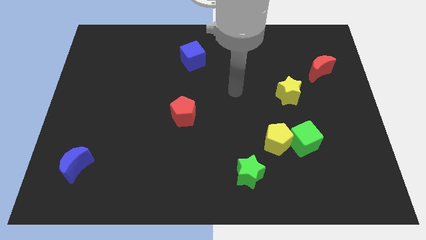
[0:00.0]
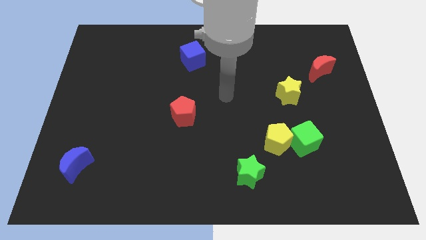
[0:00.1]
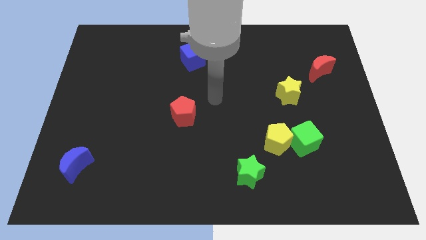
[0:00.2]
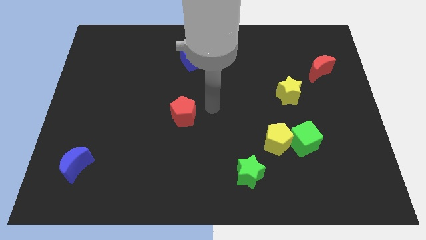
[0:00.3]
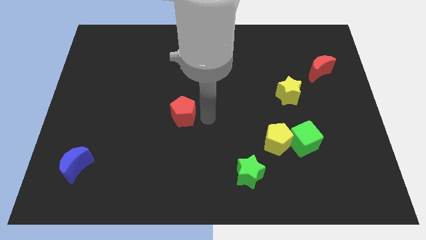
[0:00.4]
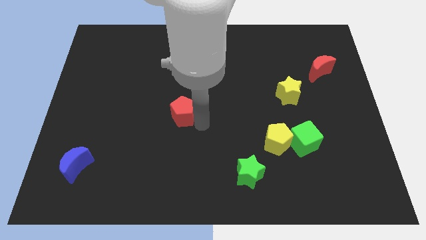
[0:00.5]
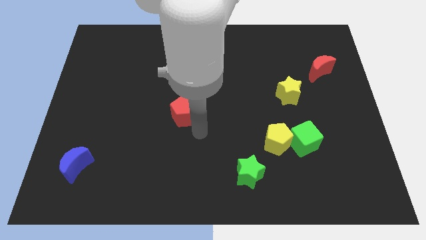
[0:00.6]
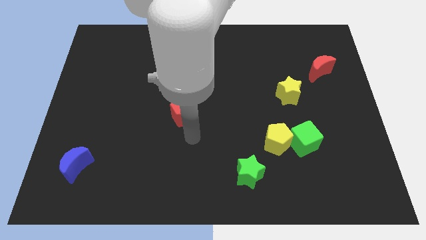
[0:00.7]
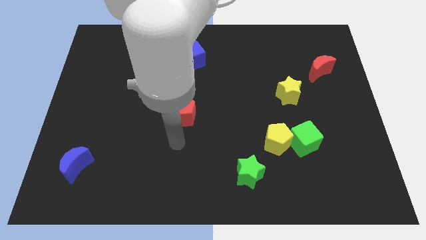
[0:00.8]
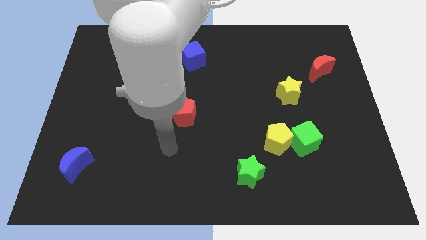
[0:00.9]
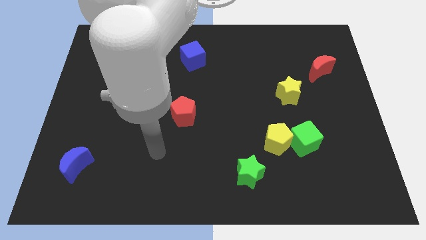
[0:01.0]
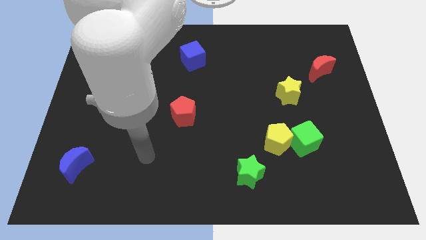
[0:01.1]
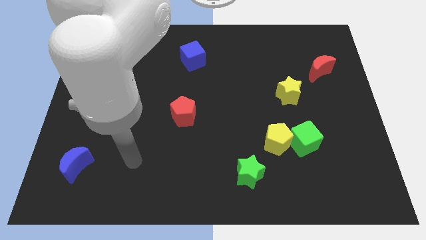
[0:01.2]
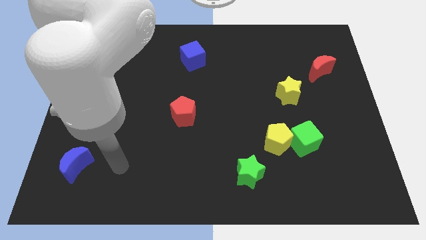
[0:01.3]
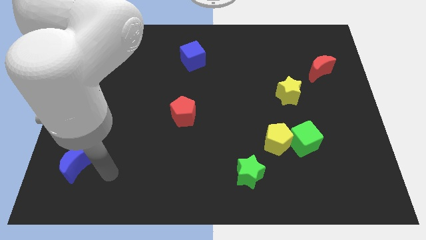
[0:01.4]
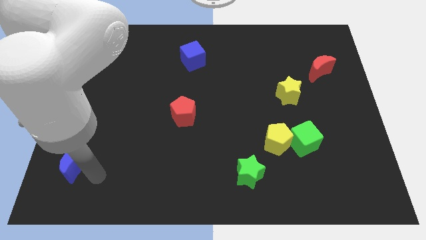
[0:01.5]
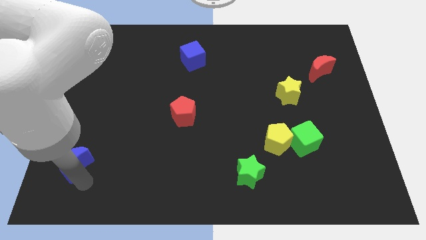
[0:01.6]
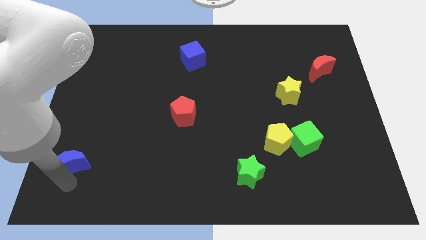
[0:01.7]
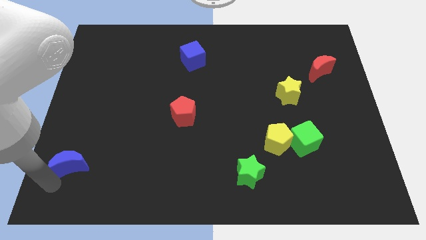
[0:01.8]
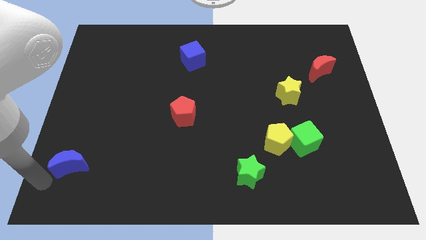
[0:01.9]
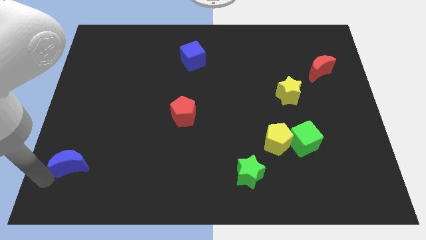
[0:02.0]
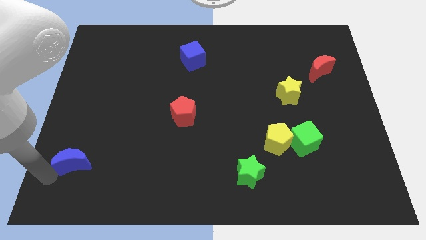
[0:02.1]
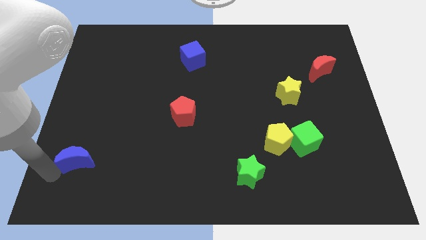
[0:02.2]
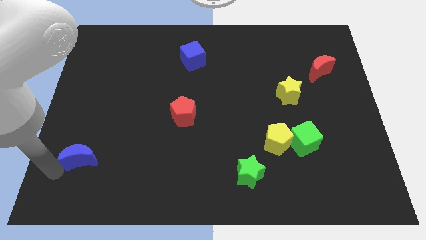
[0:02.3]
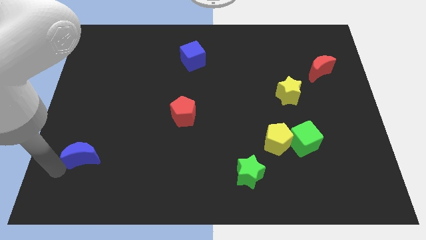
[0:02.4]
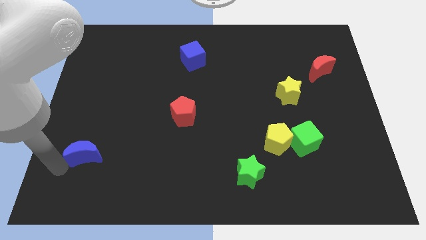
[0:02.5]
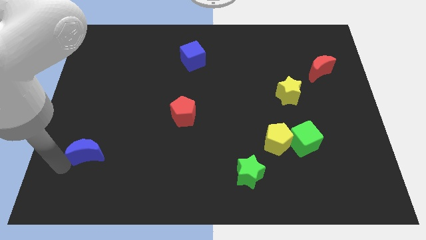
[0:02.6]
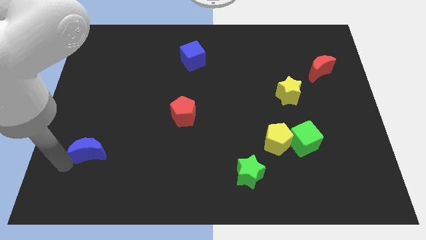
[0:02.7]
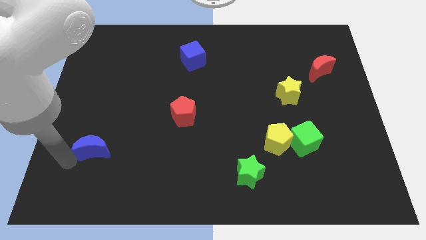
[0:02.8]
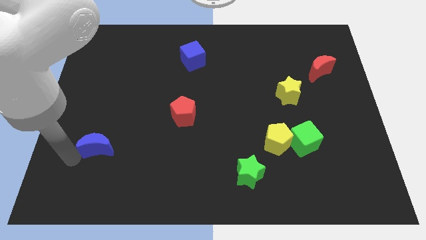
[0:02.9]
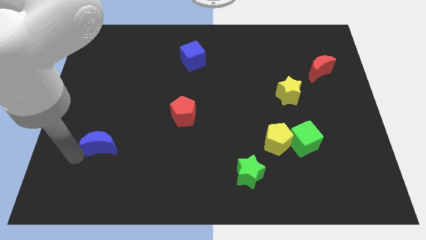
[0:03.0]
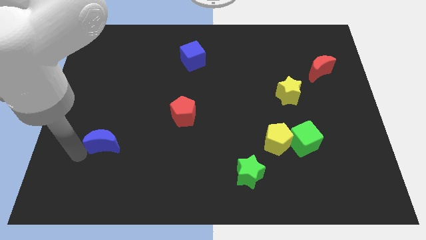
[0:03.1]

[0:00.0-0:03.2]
slide the blue moon a little bit diagonally upwards and to the right

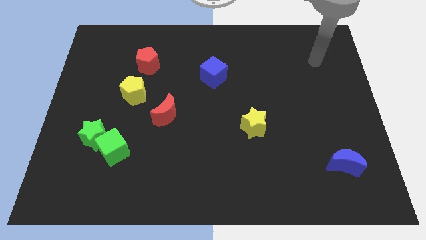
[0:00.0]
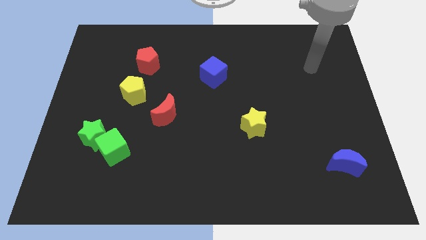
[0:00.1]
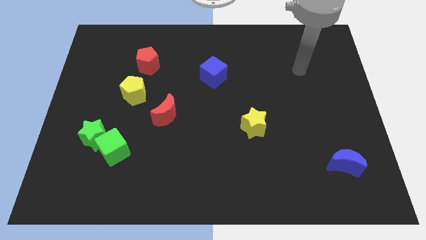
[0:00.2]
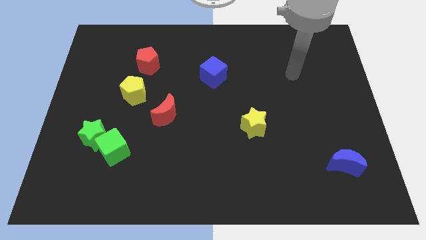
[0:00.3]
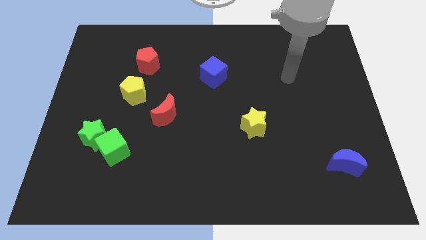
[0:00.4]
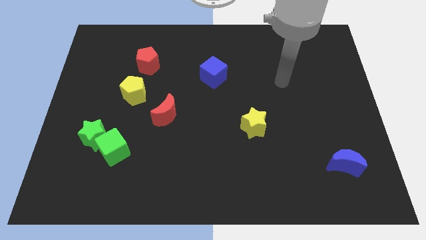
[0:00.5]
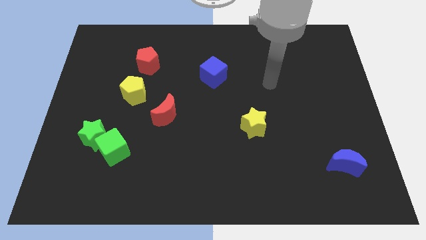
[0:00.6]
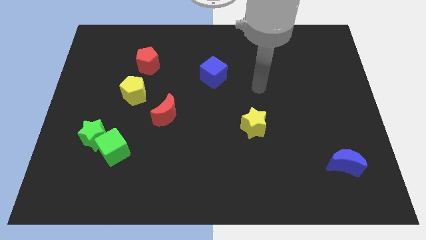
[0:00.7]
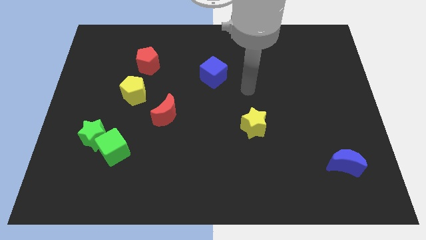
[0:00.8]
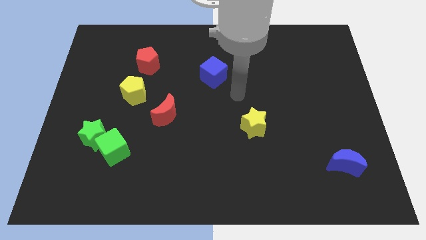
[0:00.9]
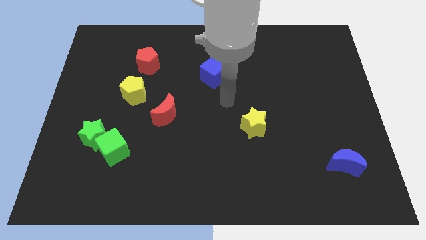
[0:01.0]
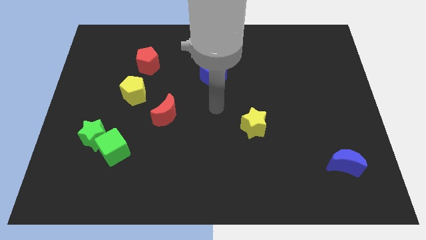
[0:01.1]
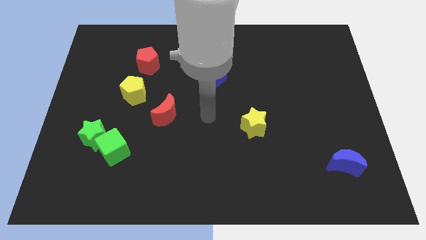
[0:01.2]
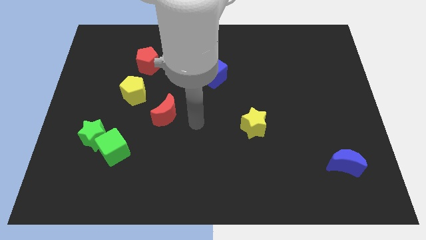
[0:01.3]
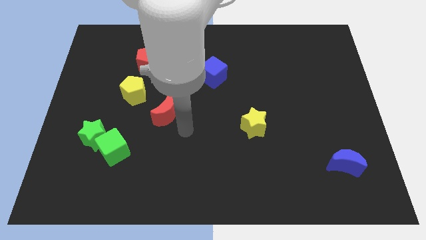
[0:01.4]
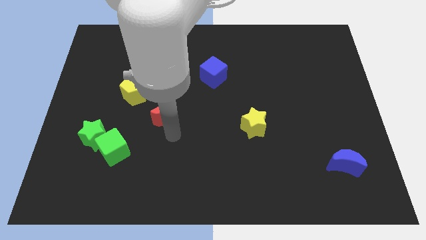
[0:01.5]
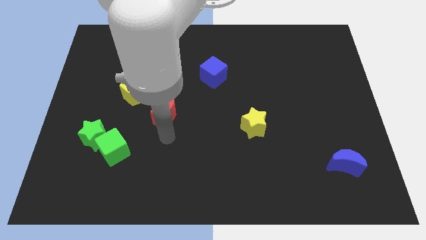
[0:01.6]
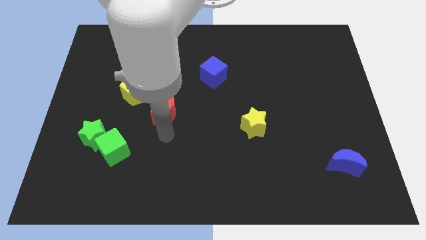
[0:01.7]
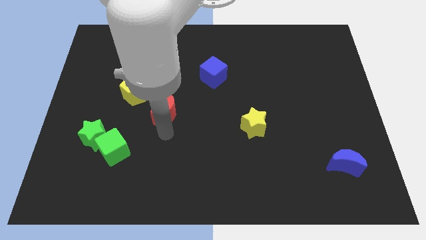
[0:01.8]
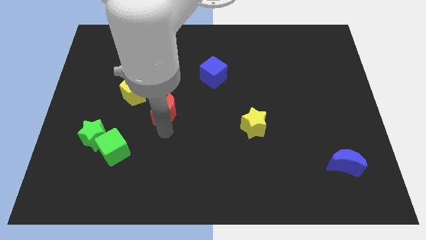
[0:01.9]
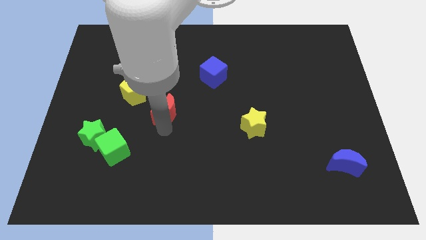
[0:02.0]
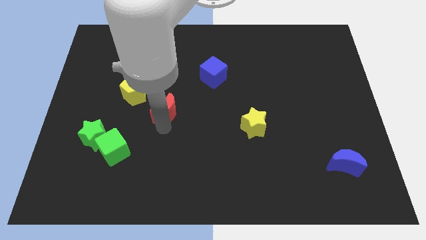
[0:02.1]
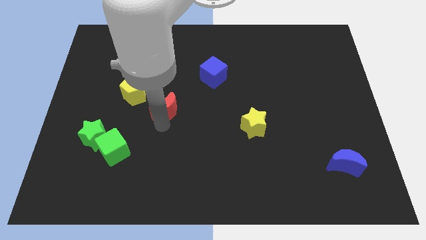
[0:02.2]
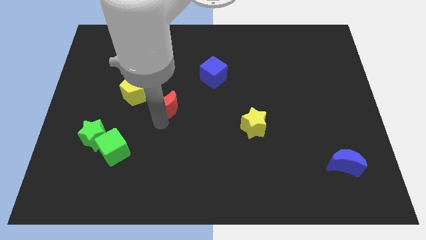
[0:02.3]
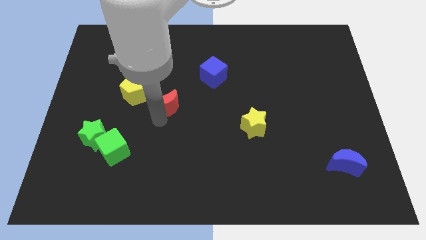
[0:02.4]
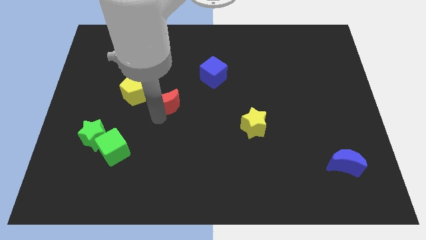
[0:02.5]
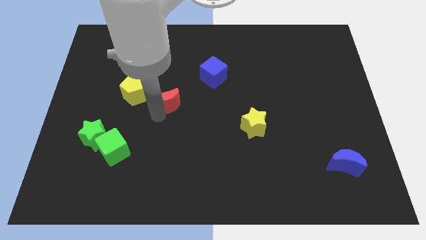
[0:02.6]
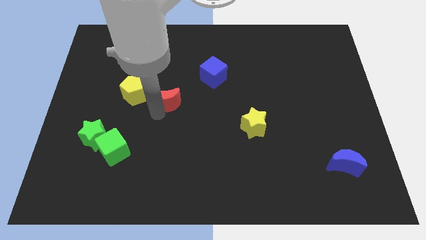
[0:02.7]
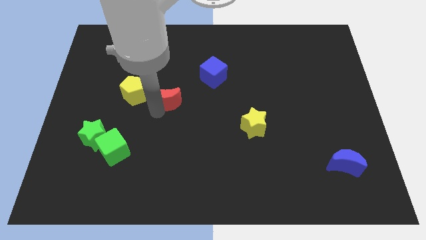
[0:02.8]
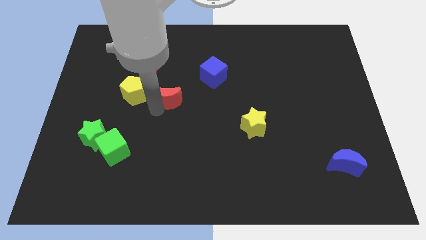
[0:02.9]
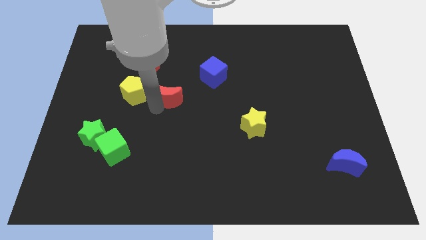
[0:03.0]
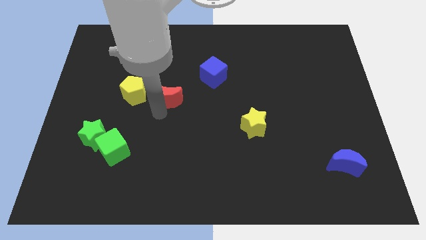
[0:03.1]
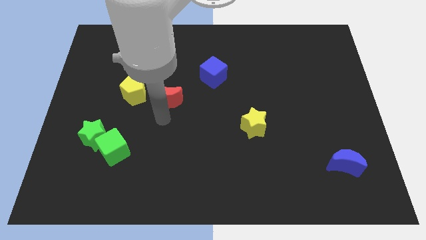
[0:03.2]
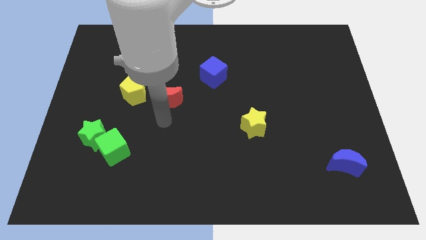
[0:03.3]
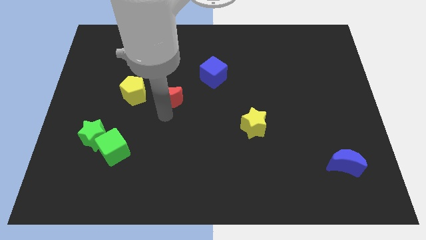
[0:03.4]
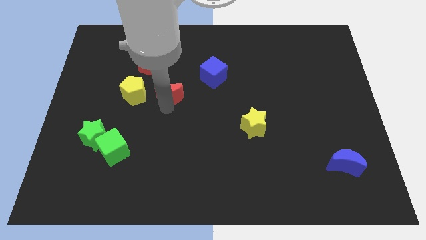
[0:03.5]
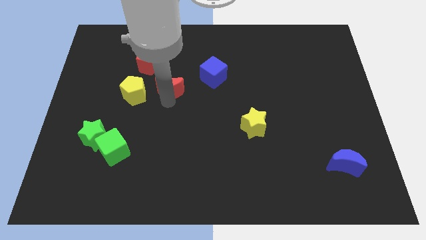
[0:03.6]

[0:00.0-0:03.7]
slide the red moon upwards somewhat

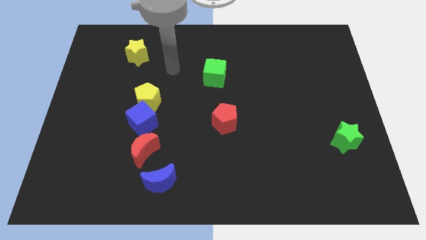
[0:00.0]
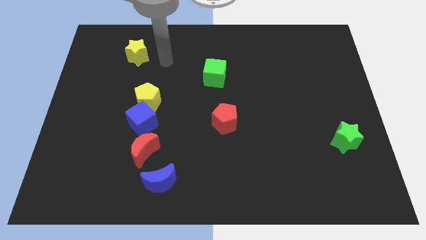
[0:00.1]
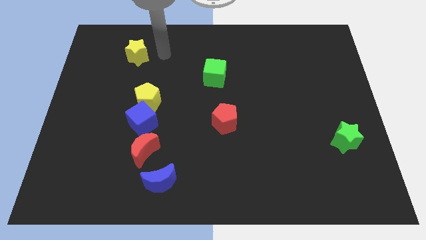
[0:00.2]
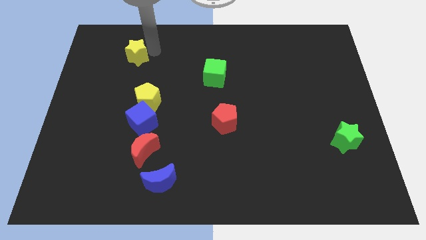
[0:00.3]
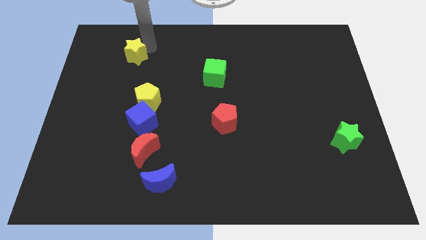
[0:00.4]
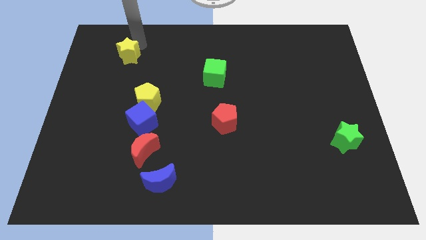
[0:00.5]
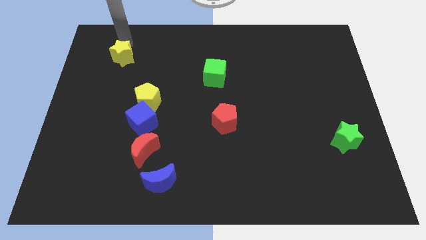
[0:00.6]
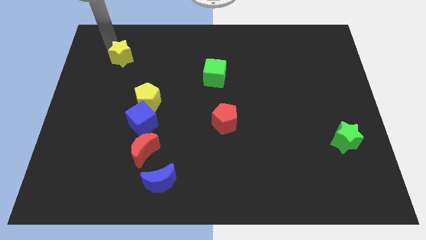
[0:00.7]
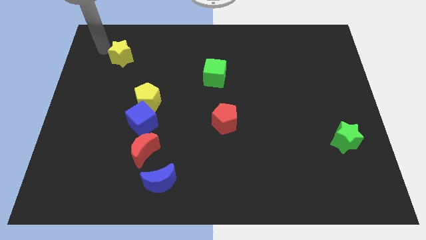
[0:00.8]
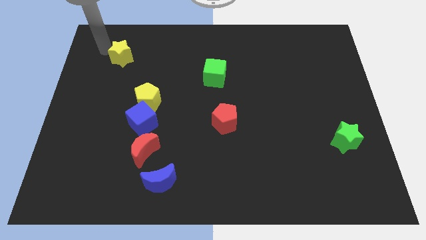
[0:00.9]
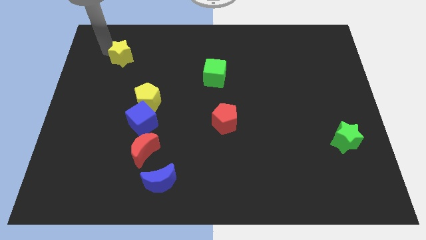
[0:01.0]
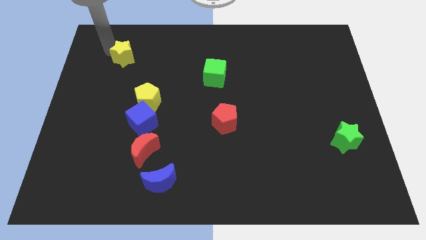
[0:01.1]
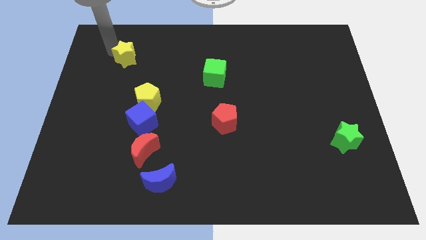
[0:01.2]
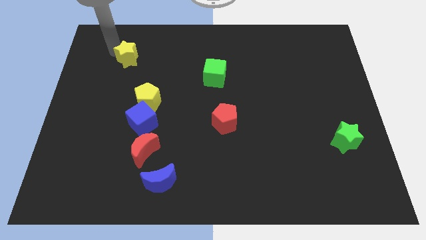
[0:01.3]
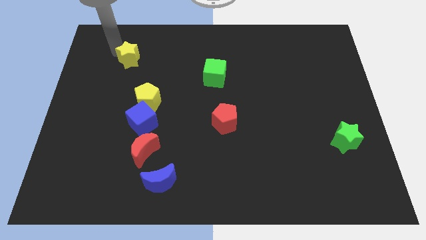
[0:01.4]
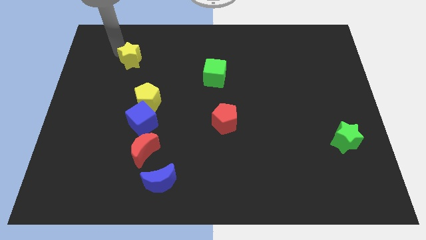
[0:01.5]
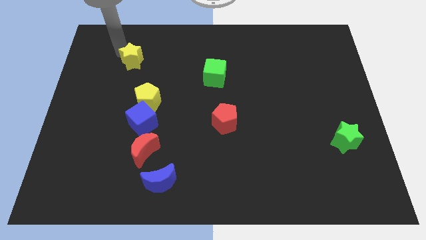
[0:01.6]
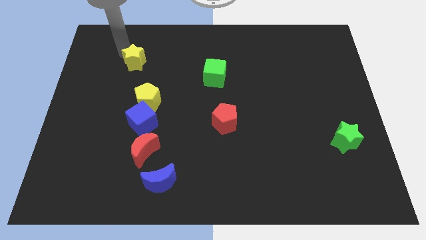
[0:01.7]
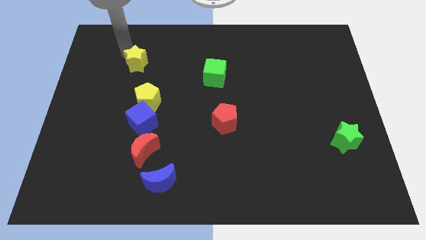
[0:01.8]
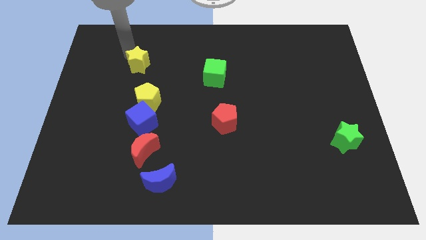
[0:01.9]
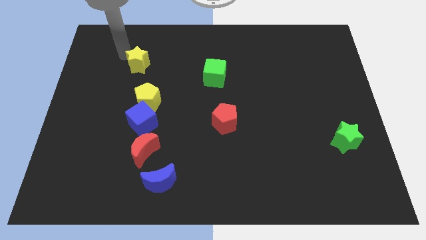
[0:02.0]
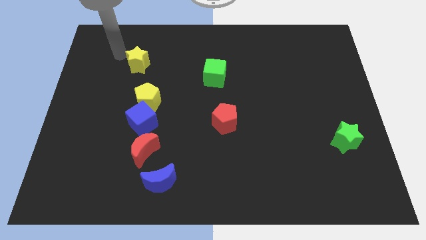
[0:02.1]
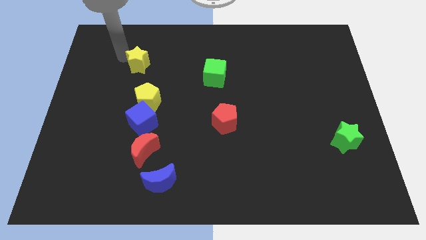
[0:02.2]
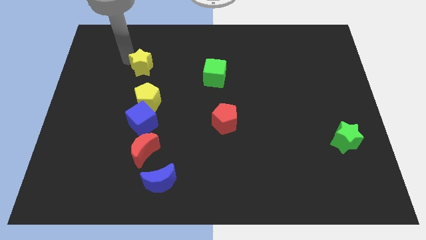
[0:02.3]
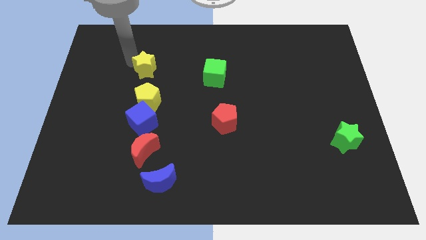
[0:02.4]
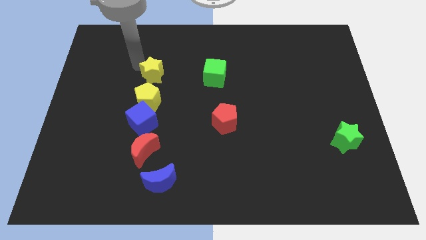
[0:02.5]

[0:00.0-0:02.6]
move the yellow star diagonally down and right a little bit
